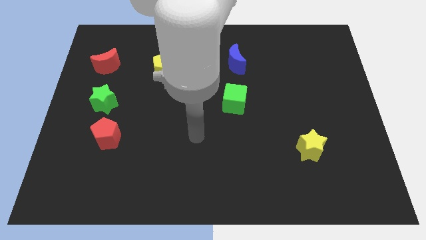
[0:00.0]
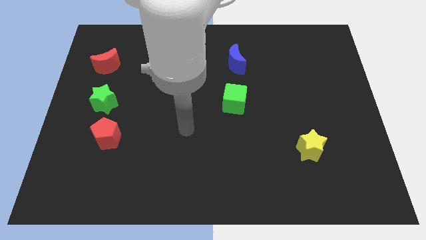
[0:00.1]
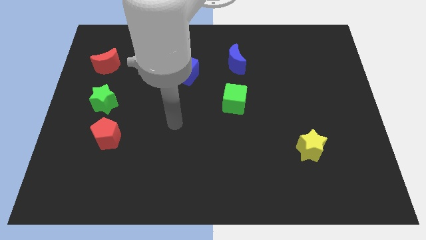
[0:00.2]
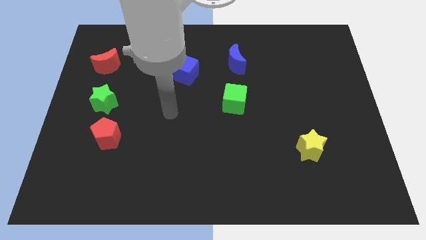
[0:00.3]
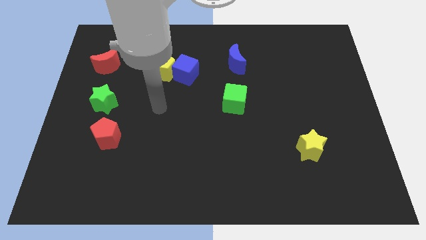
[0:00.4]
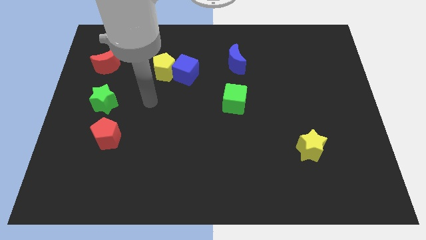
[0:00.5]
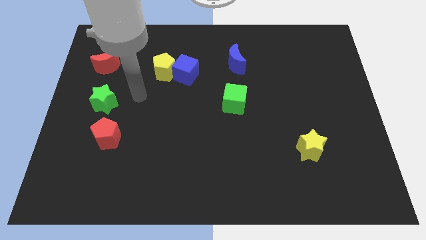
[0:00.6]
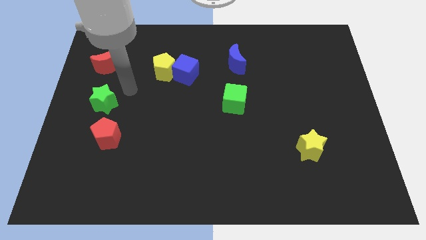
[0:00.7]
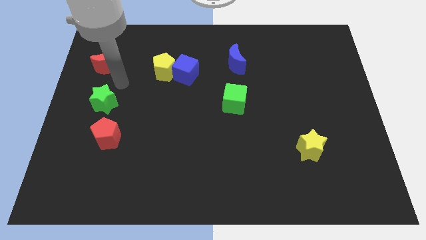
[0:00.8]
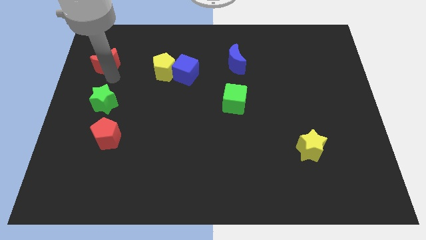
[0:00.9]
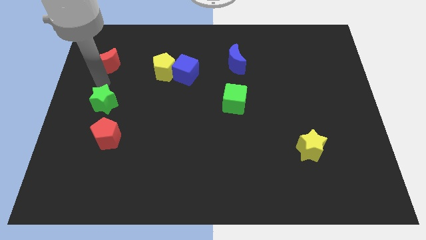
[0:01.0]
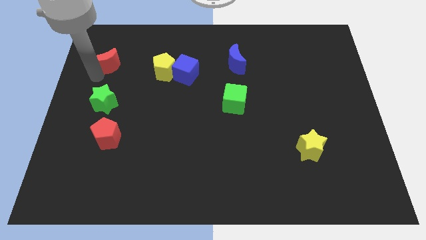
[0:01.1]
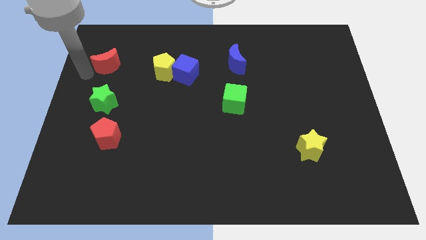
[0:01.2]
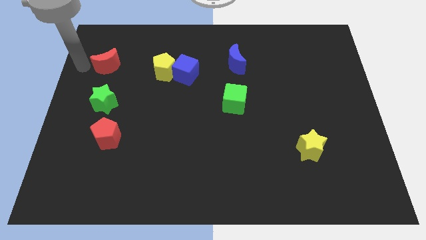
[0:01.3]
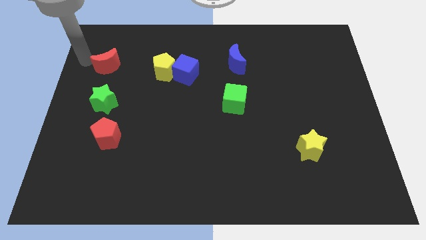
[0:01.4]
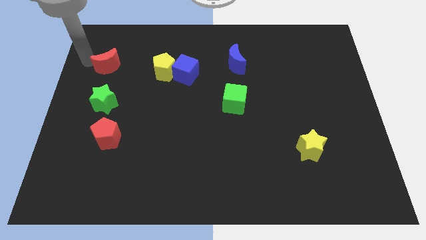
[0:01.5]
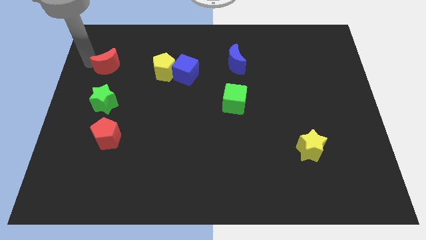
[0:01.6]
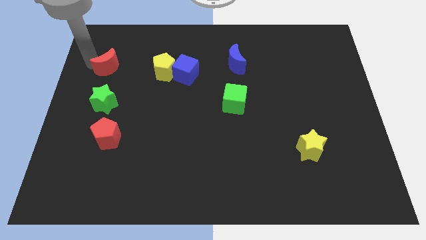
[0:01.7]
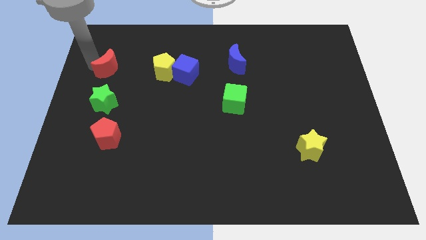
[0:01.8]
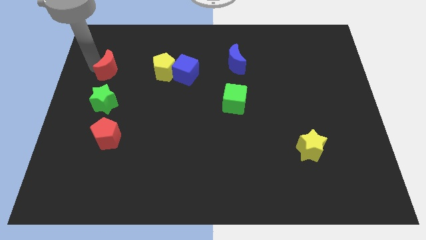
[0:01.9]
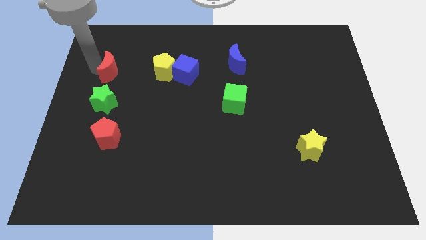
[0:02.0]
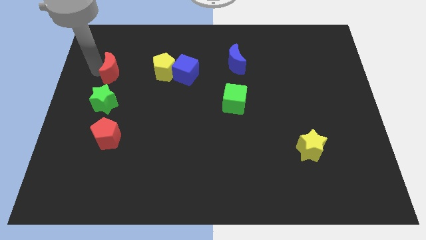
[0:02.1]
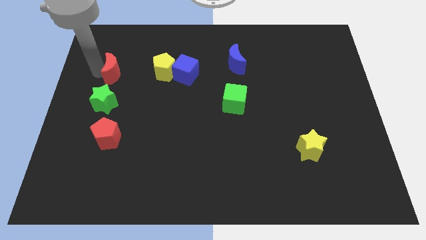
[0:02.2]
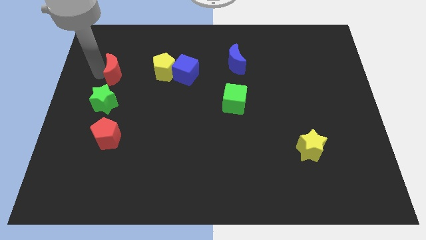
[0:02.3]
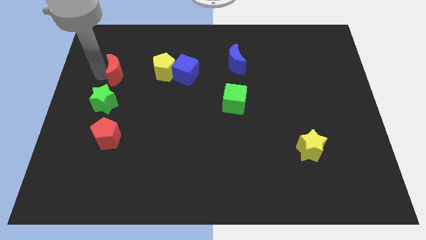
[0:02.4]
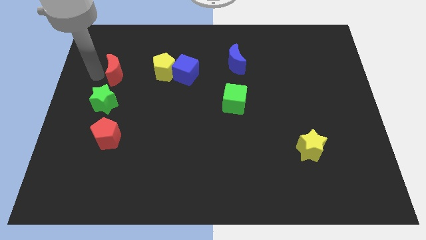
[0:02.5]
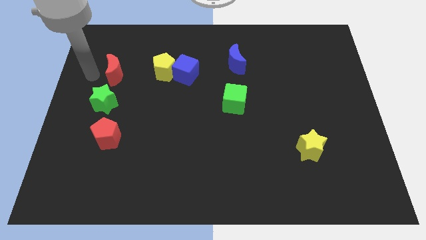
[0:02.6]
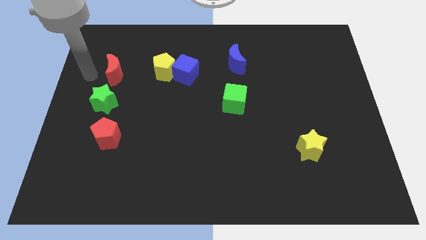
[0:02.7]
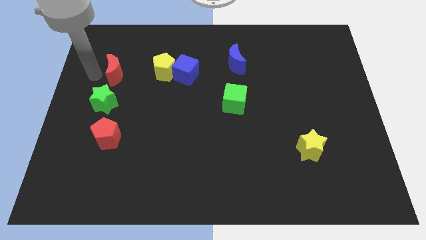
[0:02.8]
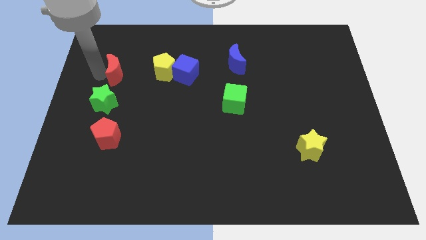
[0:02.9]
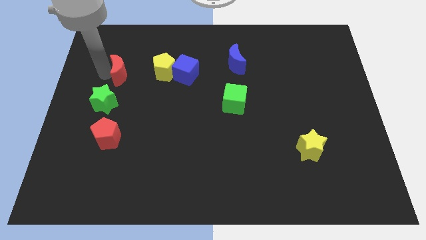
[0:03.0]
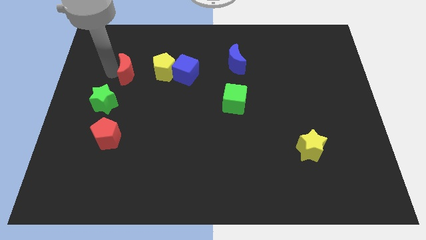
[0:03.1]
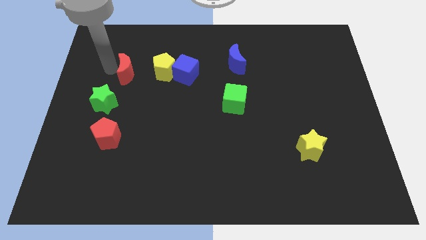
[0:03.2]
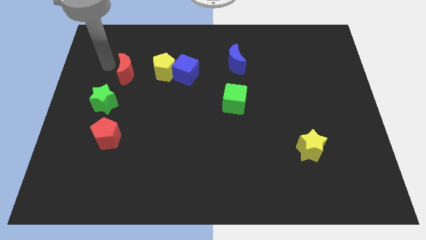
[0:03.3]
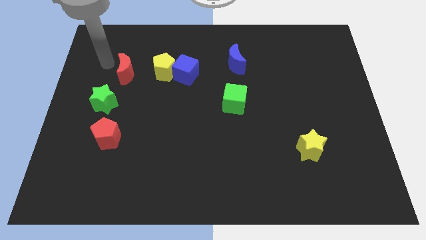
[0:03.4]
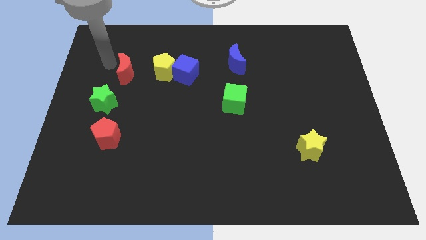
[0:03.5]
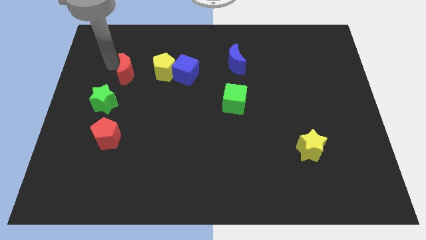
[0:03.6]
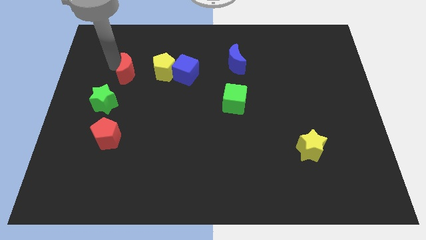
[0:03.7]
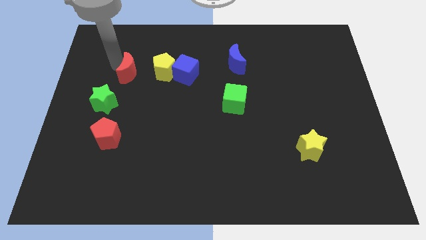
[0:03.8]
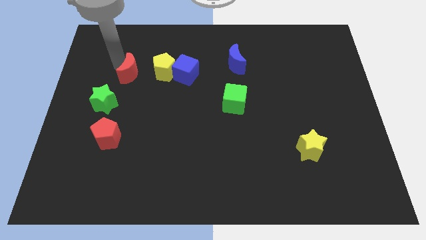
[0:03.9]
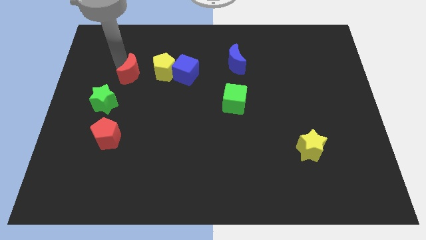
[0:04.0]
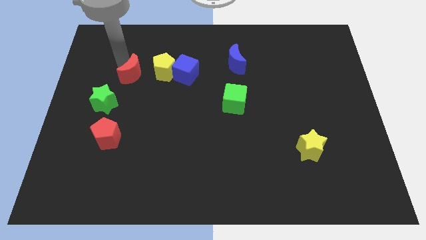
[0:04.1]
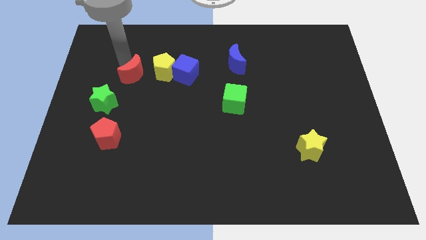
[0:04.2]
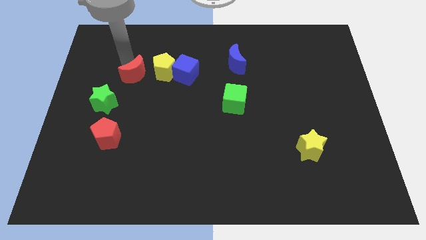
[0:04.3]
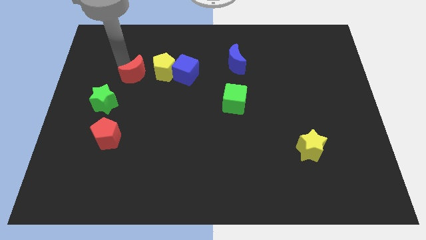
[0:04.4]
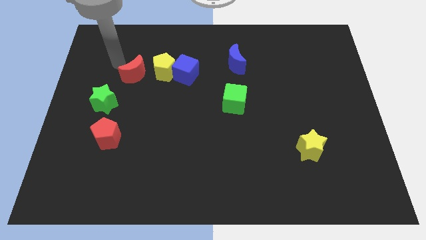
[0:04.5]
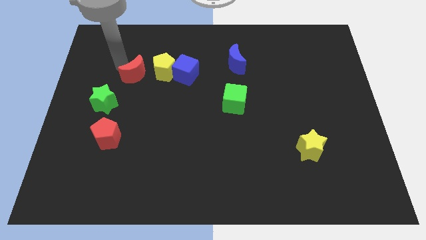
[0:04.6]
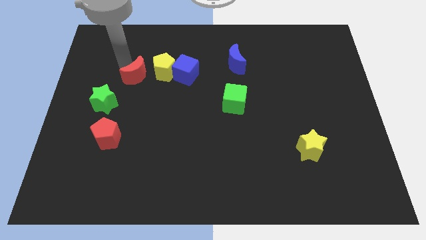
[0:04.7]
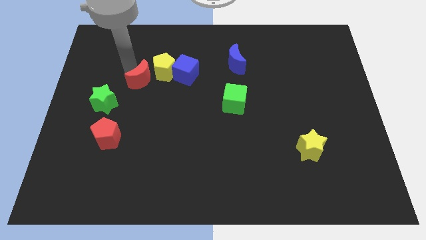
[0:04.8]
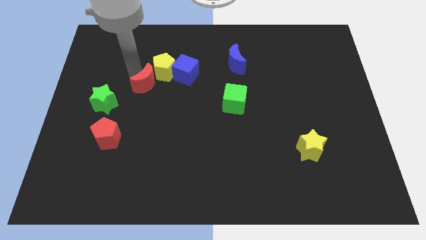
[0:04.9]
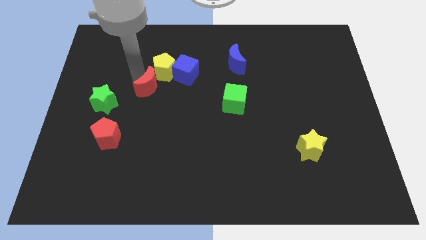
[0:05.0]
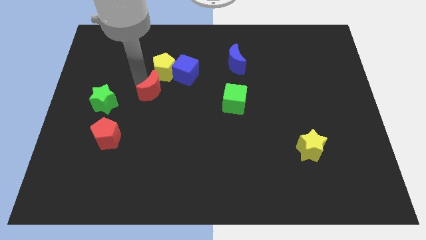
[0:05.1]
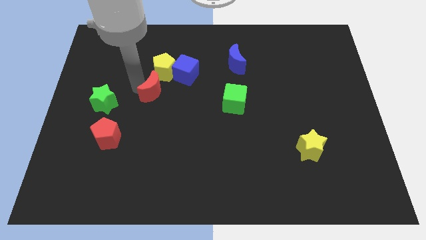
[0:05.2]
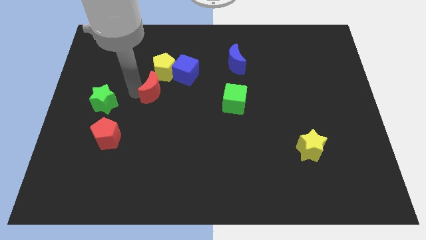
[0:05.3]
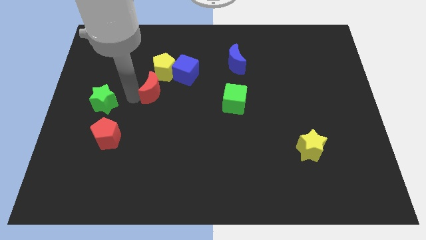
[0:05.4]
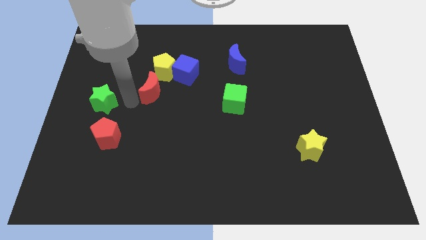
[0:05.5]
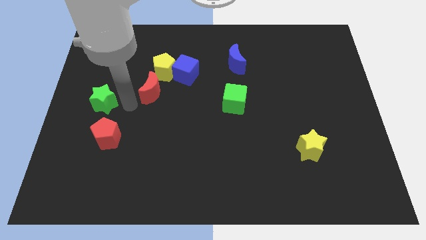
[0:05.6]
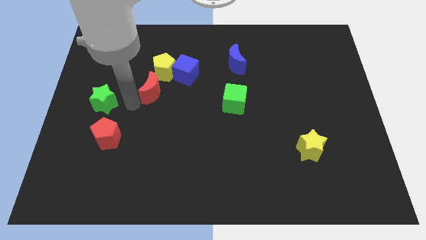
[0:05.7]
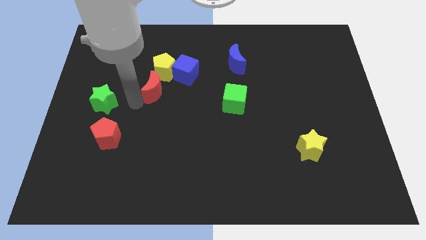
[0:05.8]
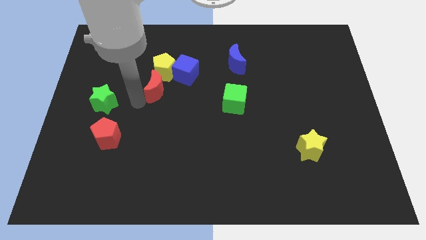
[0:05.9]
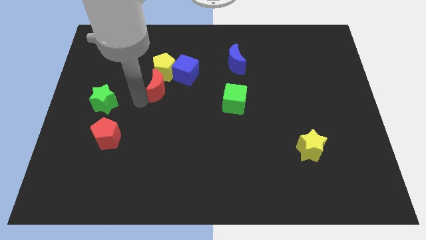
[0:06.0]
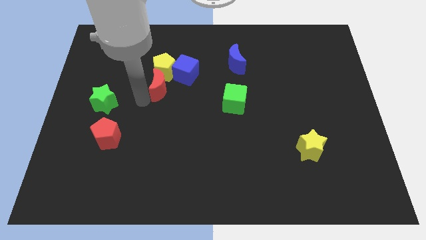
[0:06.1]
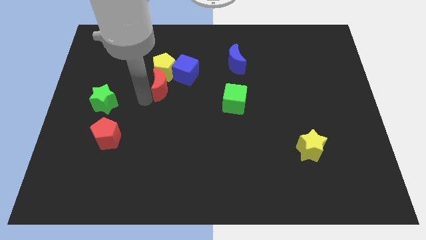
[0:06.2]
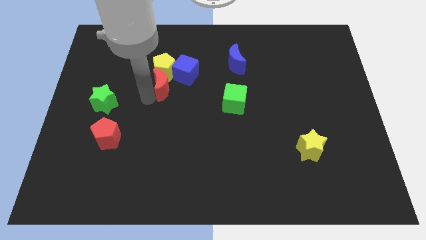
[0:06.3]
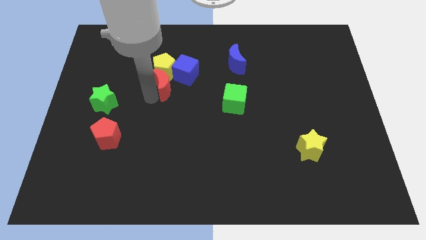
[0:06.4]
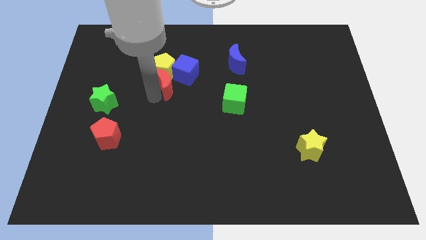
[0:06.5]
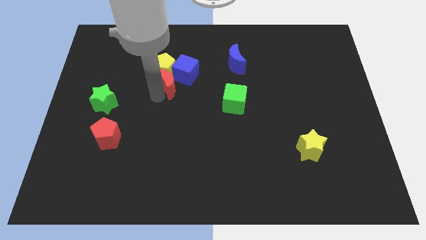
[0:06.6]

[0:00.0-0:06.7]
slide the red moon towards the blue cube
